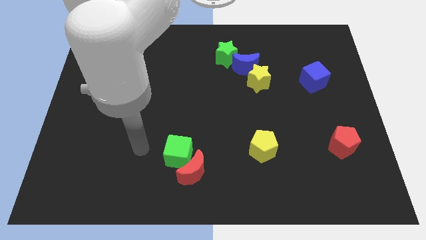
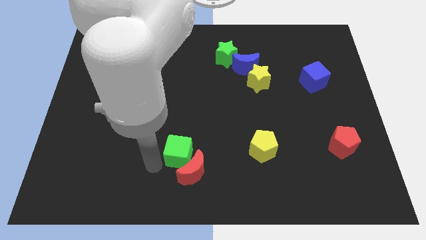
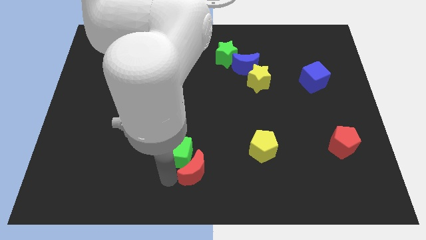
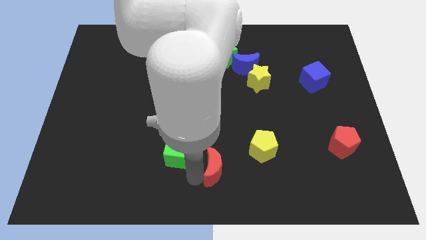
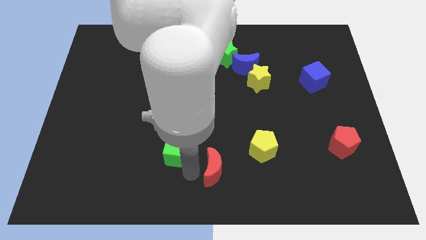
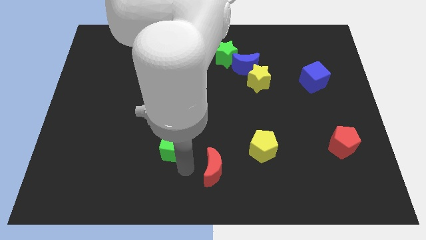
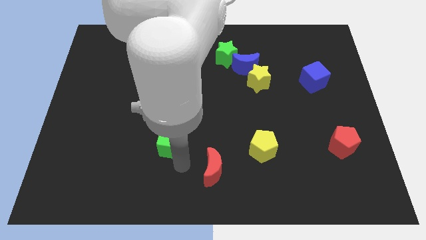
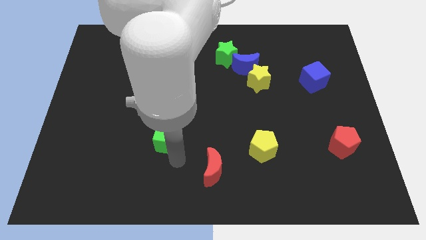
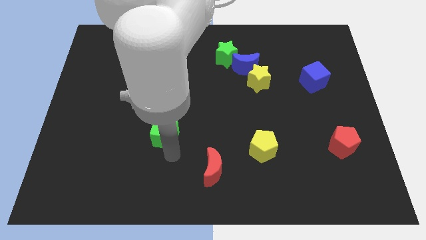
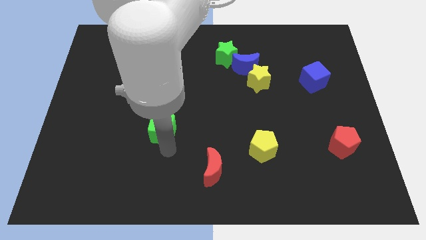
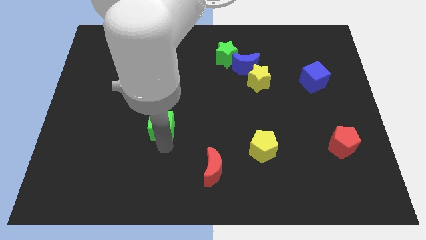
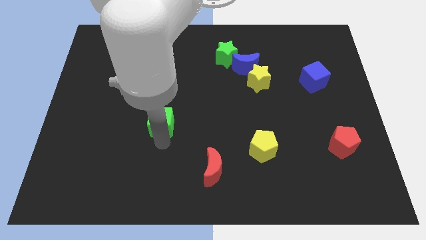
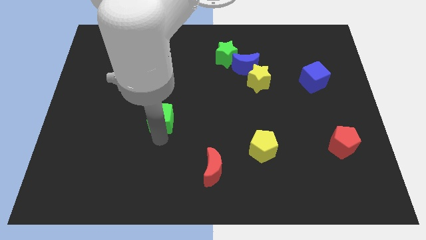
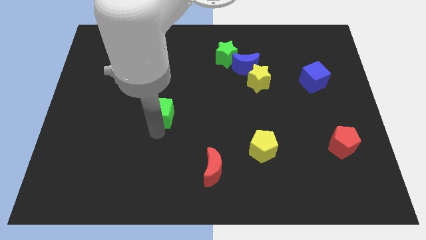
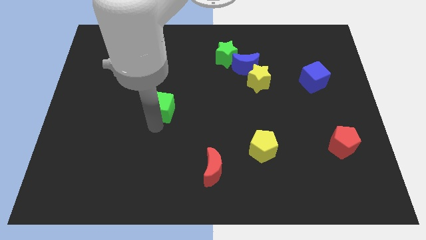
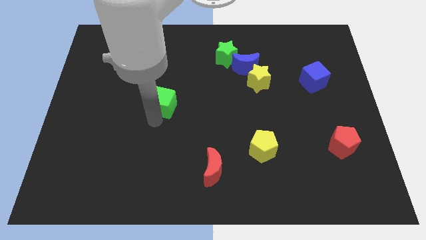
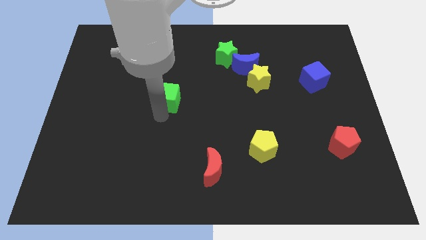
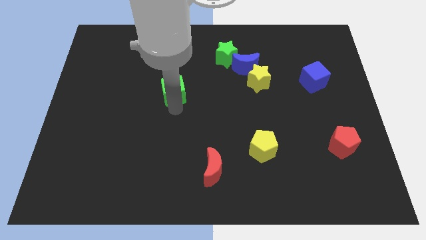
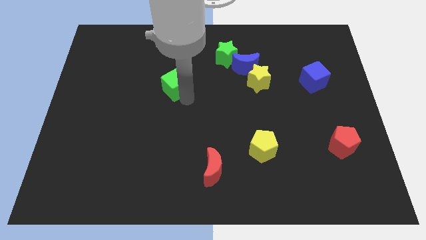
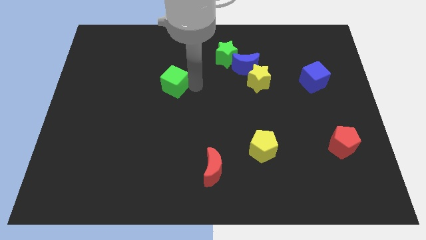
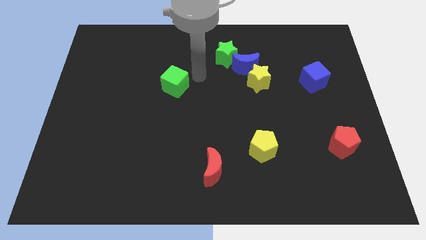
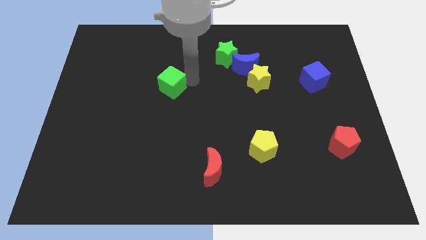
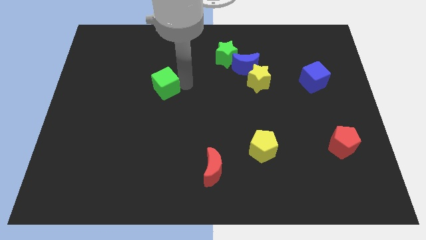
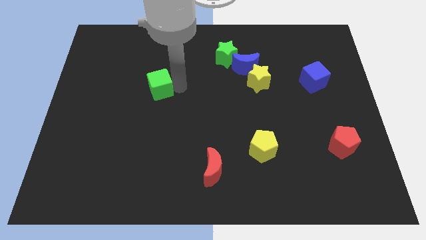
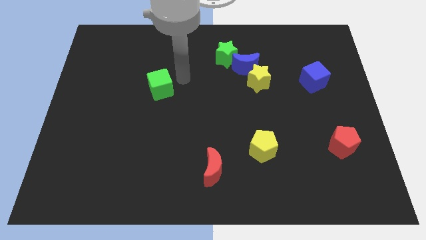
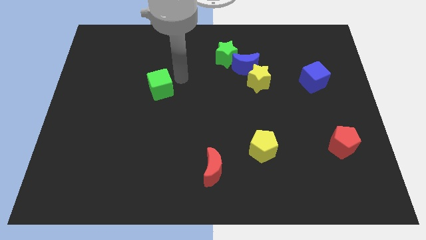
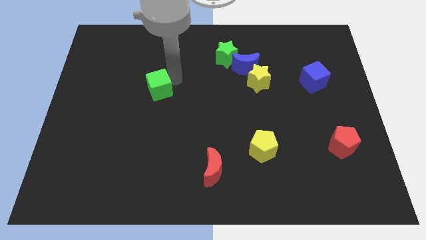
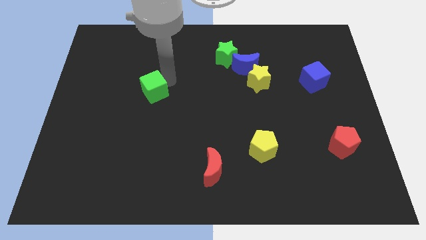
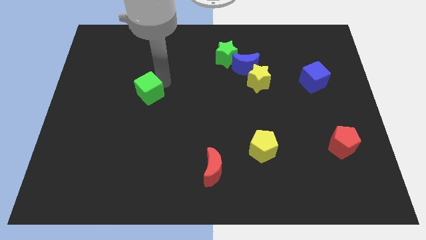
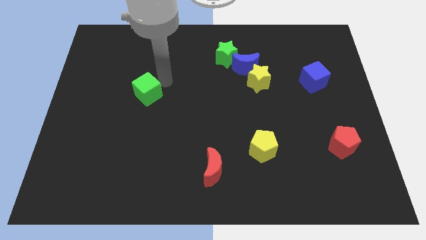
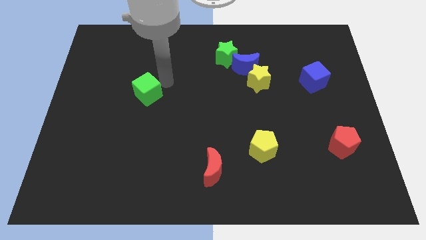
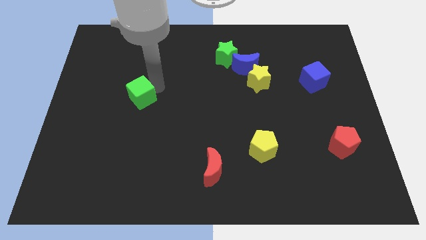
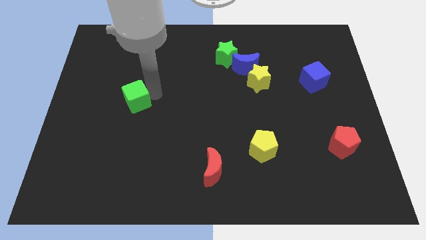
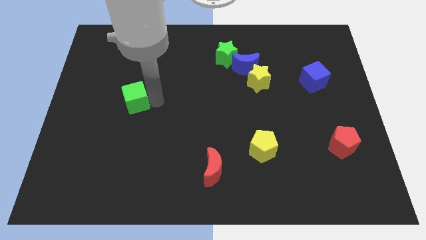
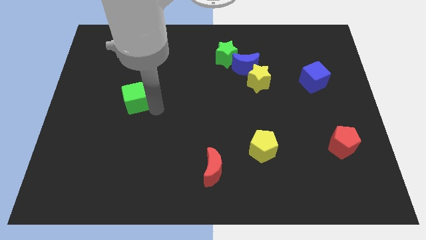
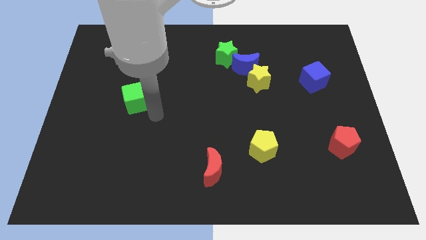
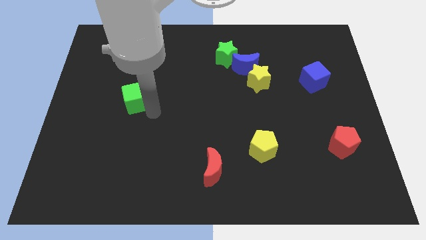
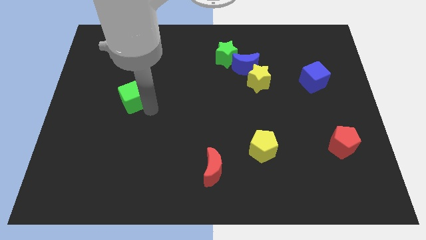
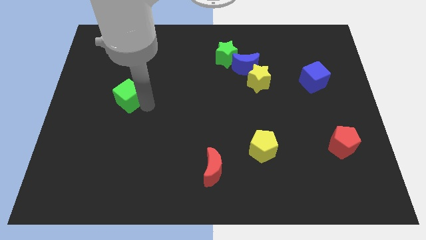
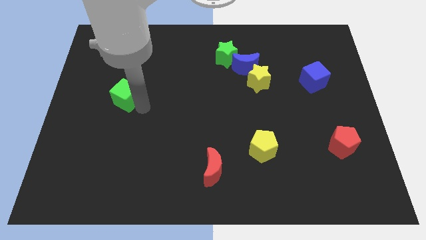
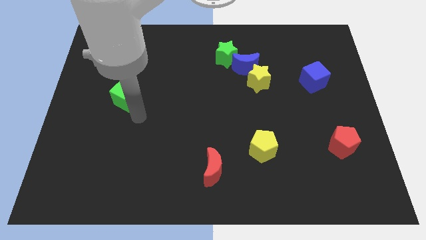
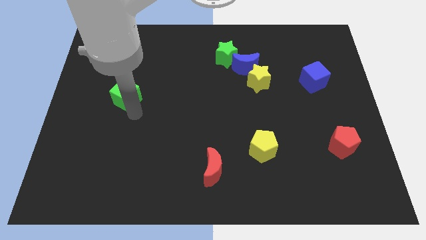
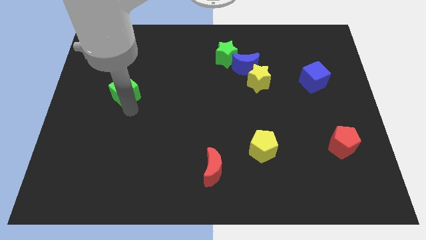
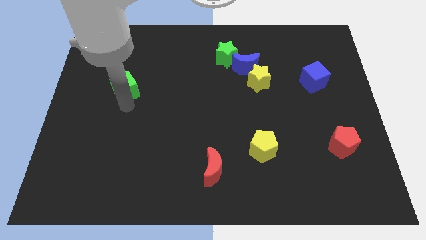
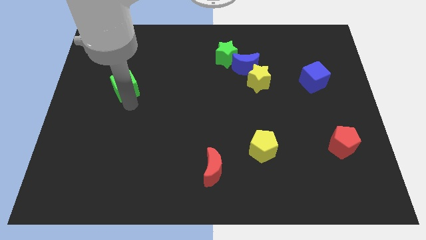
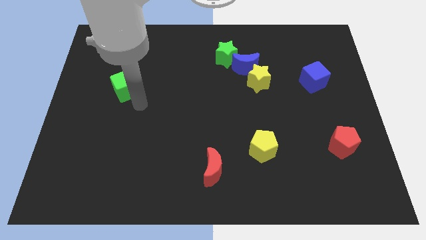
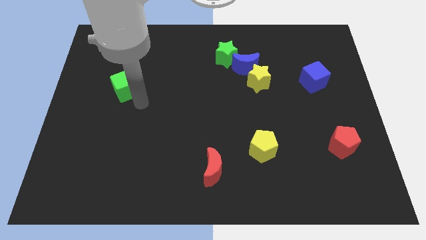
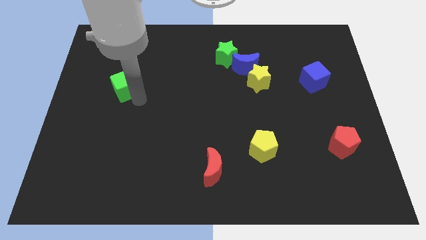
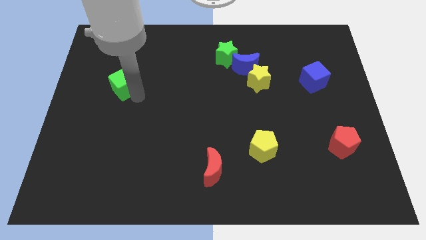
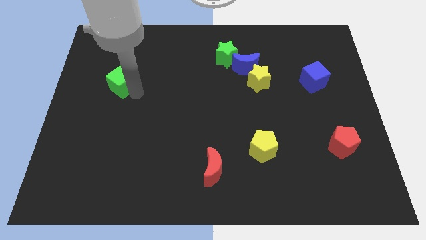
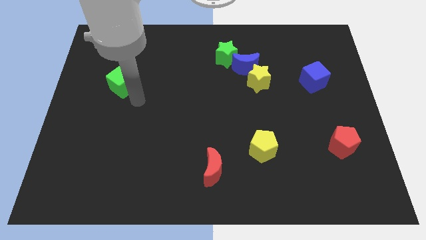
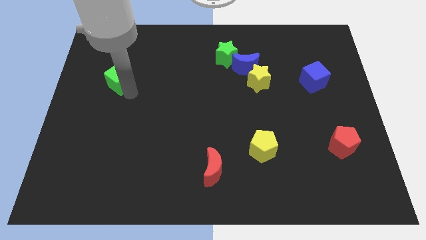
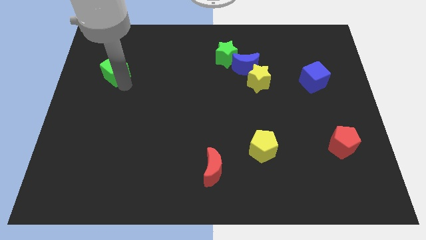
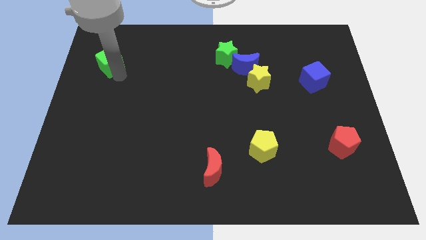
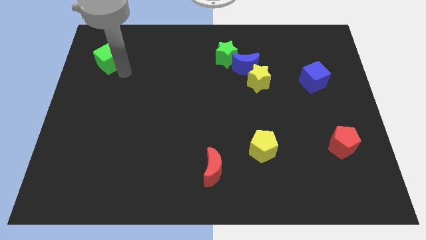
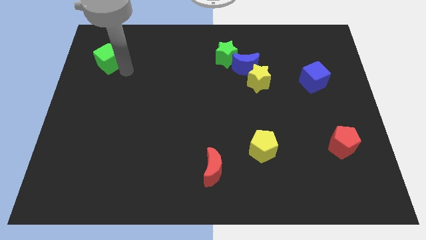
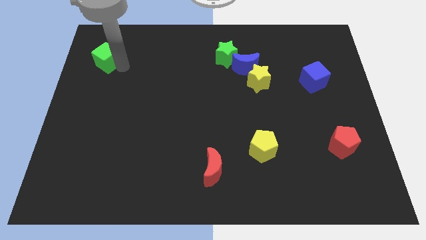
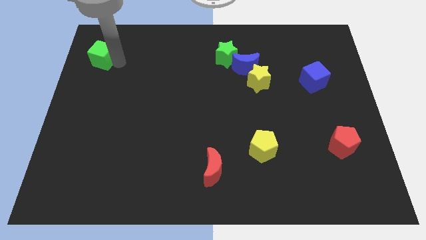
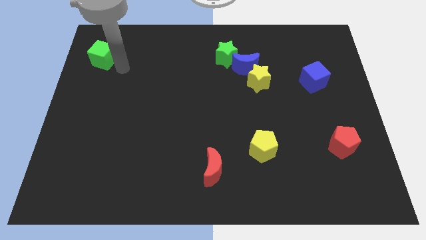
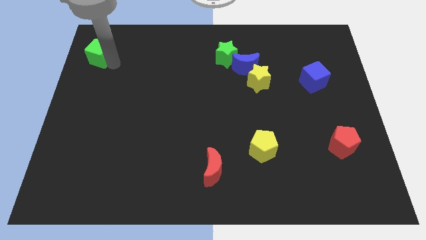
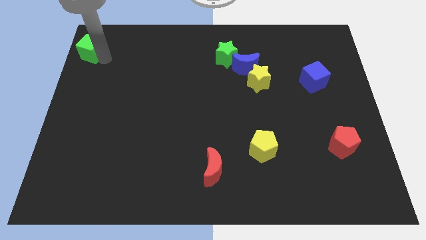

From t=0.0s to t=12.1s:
put the green cube to the top left corner

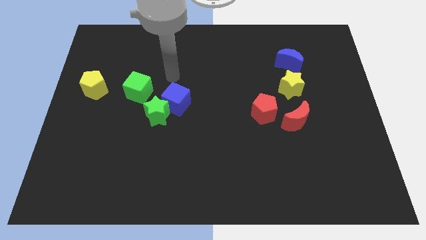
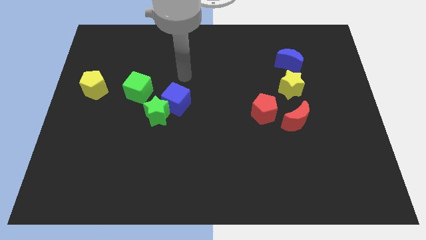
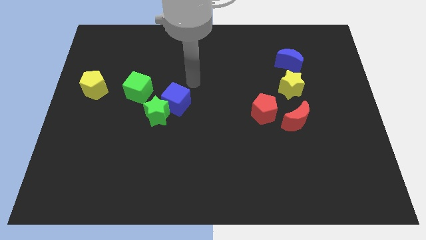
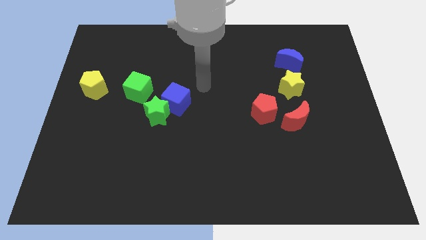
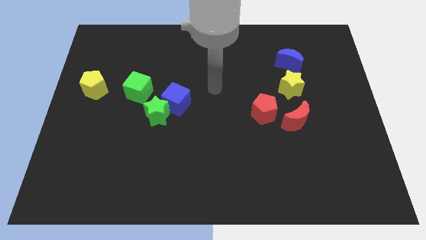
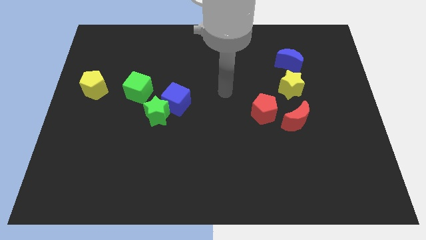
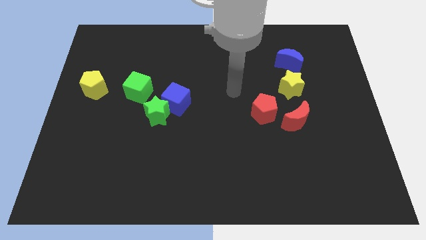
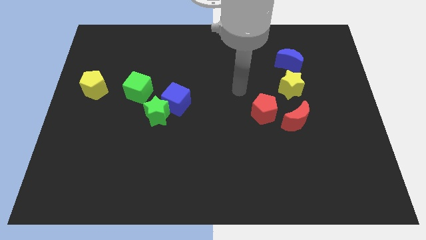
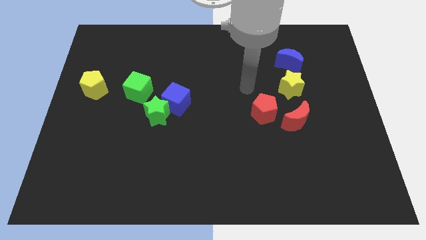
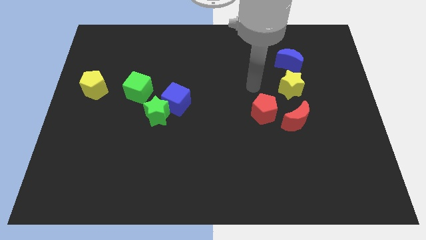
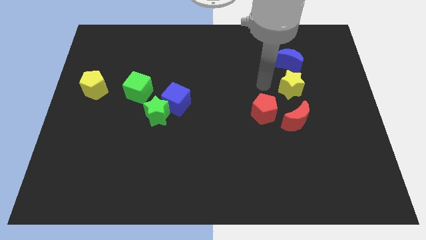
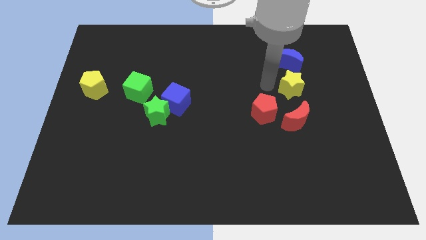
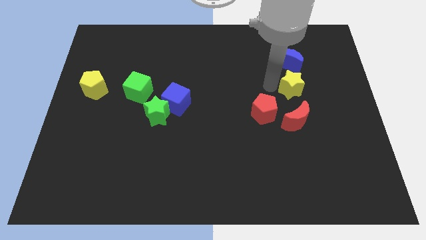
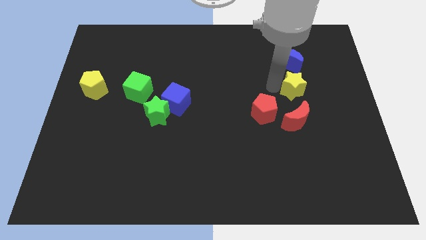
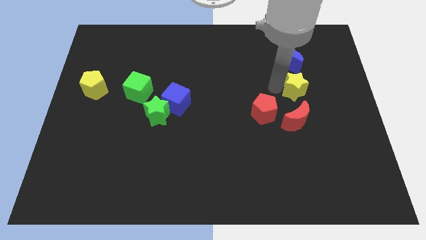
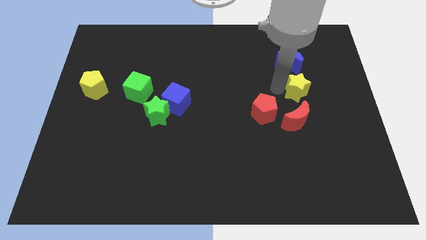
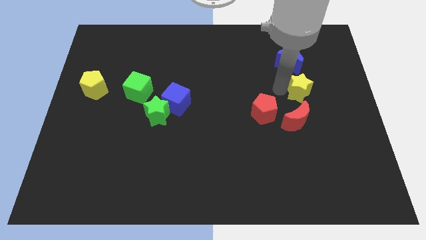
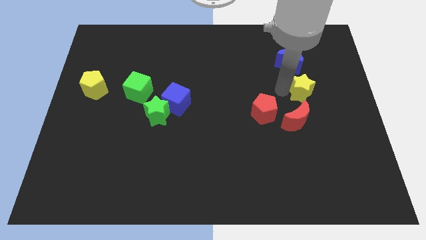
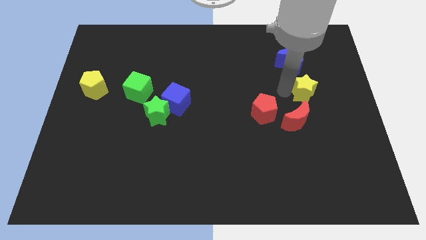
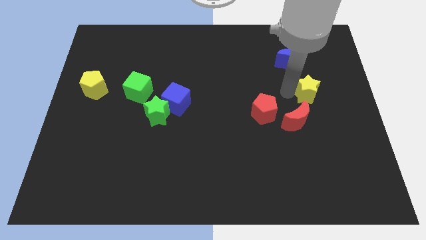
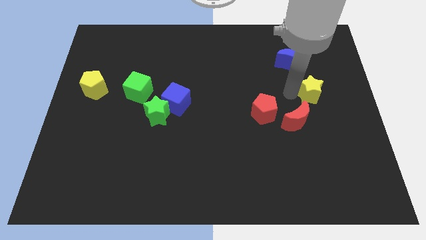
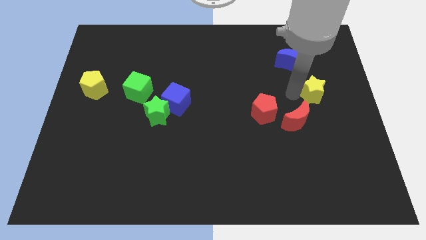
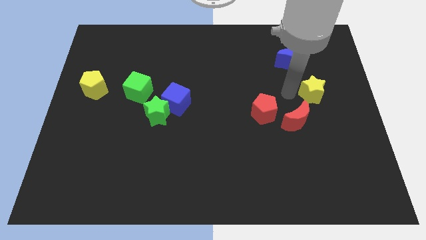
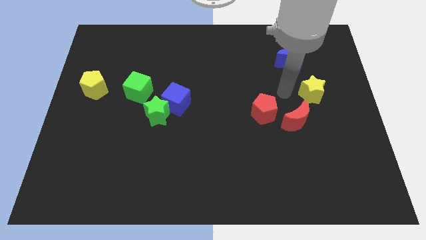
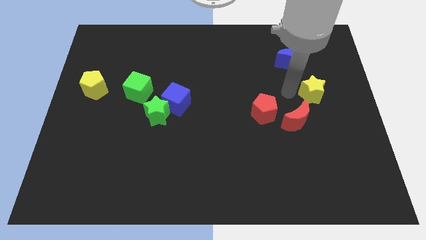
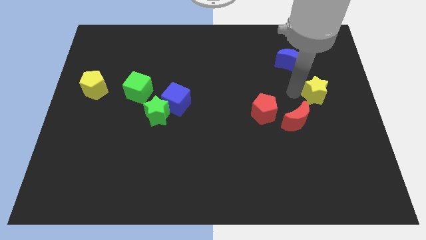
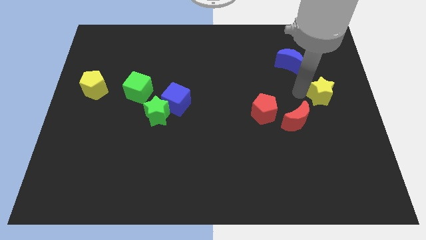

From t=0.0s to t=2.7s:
push the yellow star to the center right
